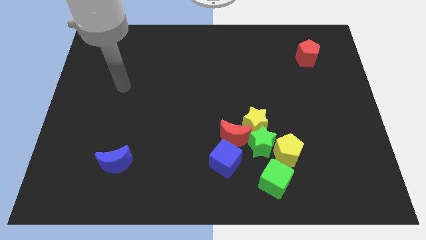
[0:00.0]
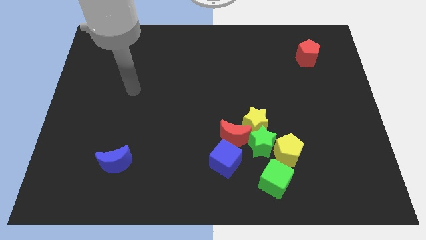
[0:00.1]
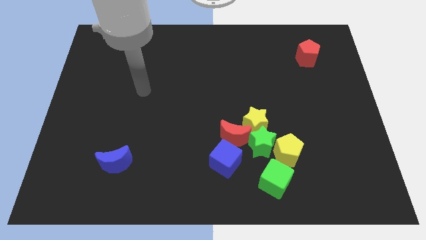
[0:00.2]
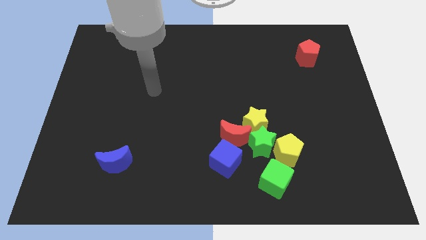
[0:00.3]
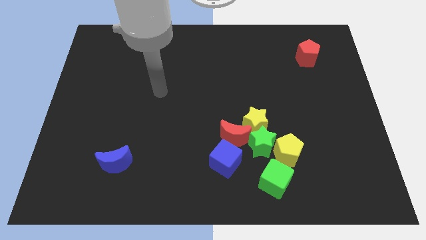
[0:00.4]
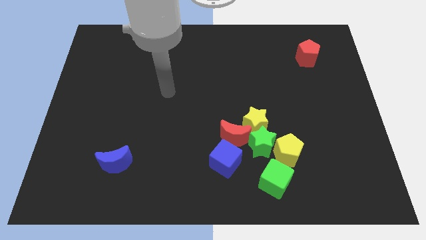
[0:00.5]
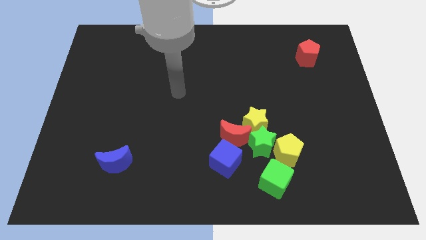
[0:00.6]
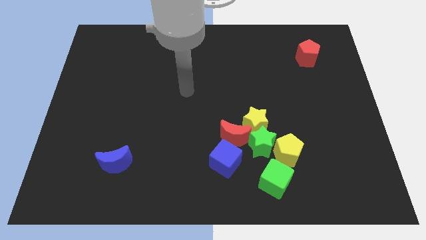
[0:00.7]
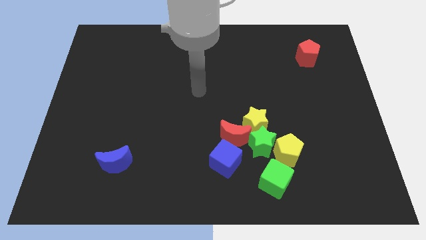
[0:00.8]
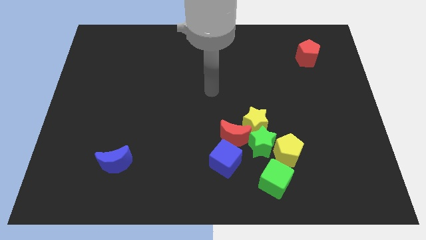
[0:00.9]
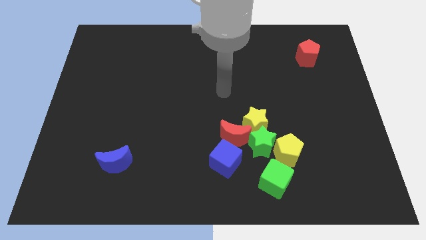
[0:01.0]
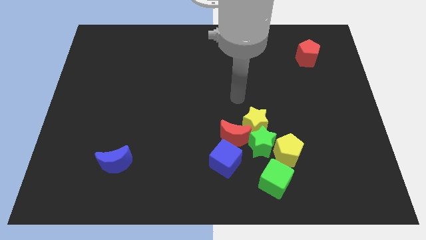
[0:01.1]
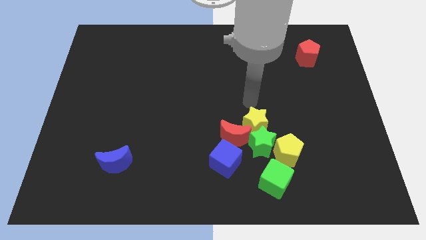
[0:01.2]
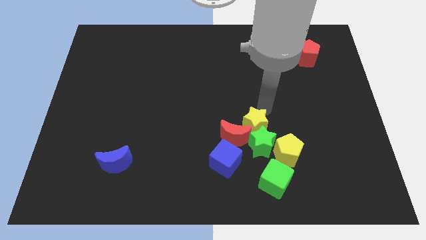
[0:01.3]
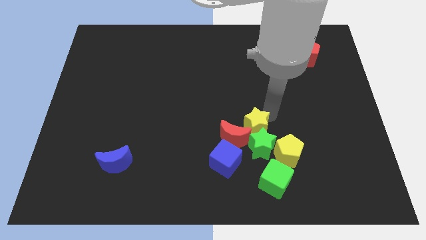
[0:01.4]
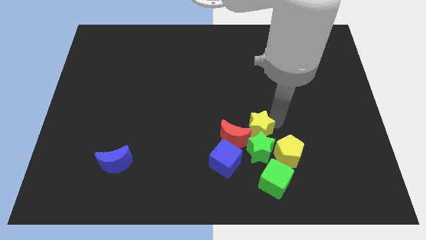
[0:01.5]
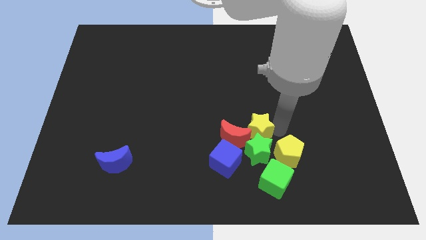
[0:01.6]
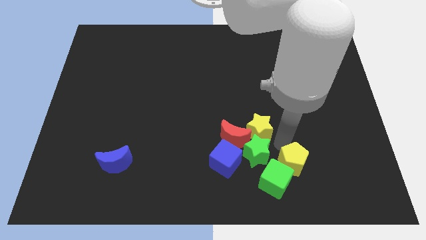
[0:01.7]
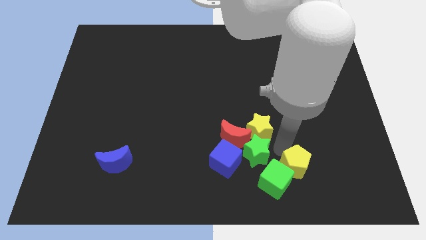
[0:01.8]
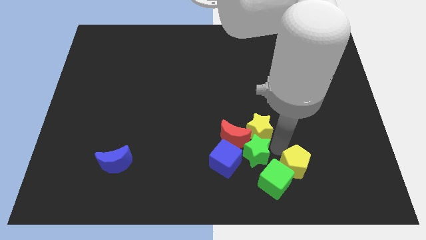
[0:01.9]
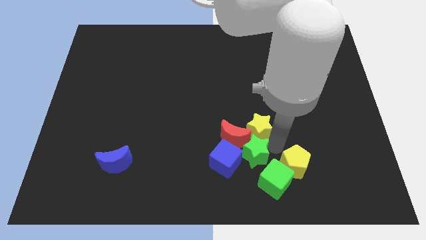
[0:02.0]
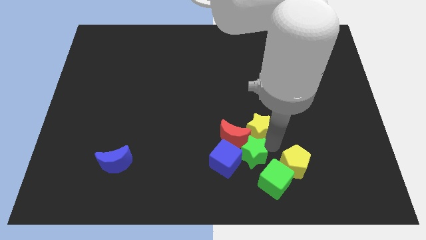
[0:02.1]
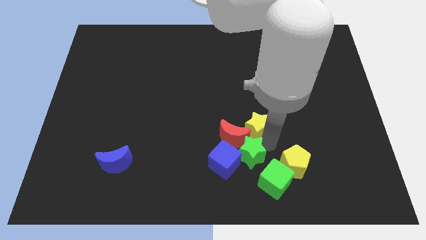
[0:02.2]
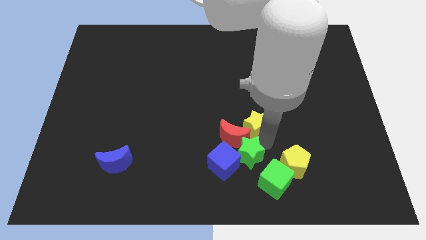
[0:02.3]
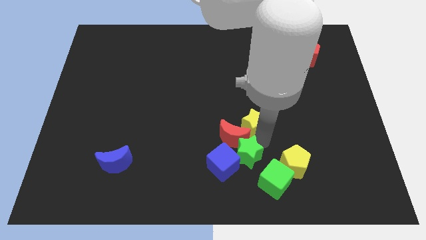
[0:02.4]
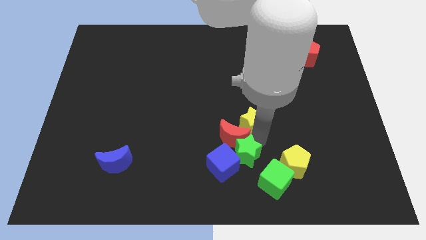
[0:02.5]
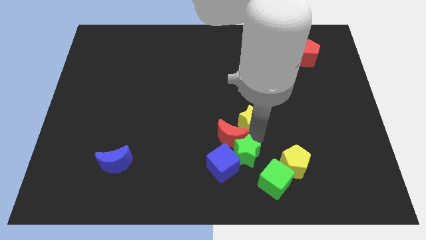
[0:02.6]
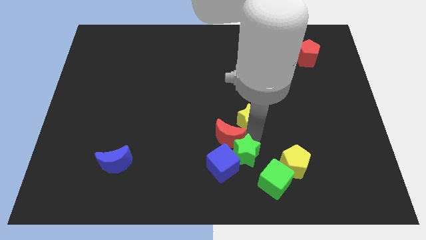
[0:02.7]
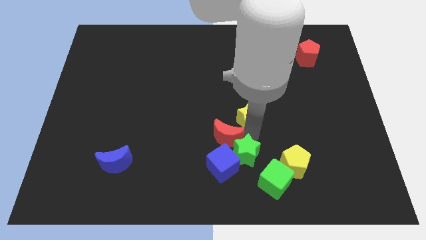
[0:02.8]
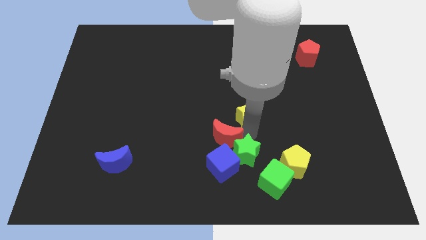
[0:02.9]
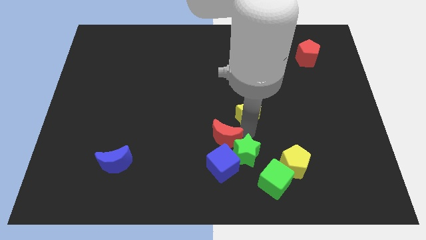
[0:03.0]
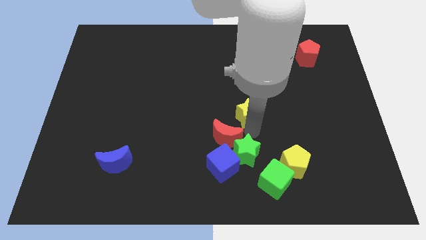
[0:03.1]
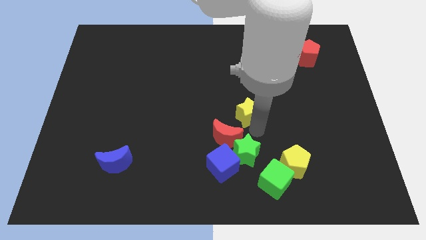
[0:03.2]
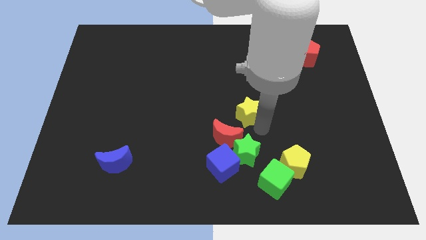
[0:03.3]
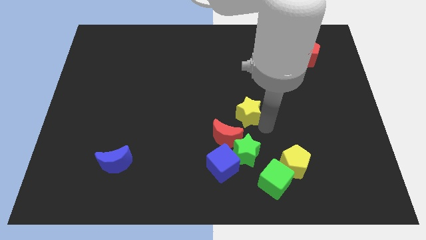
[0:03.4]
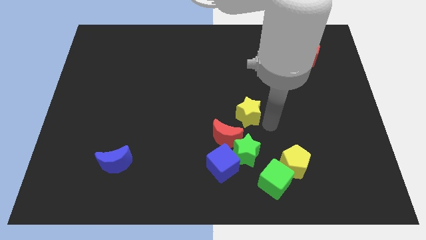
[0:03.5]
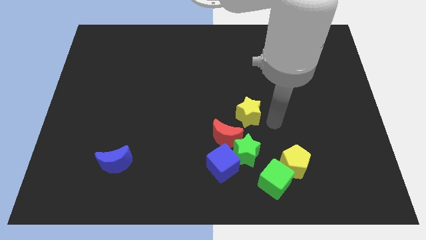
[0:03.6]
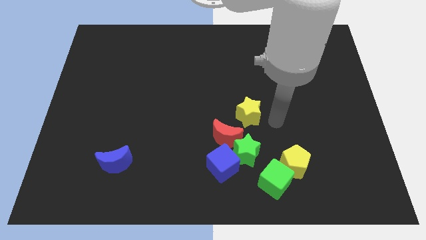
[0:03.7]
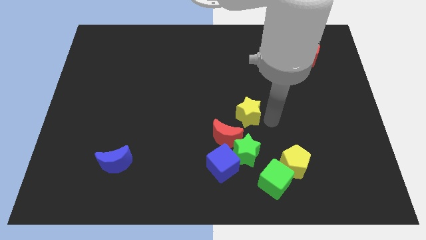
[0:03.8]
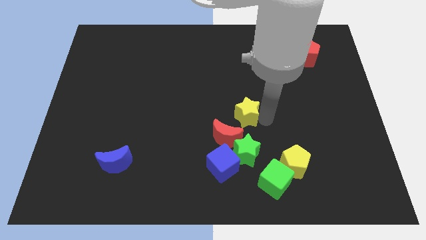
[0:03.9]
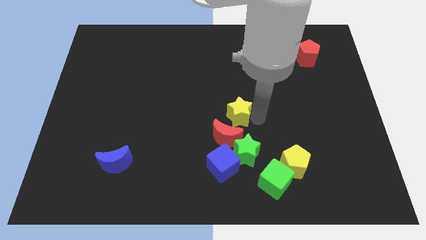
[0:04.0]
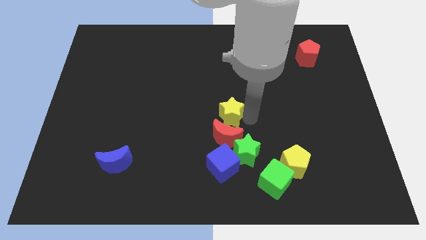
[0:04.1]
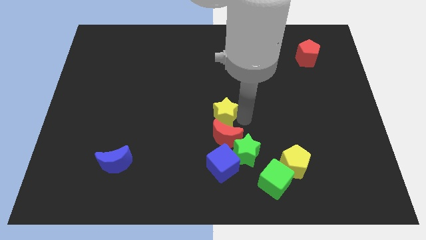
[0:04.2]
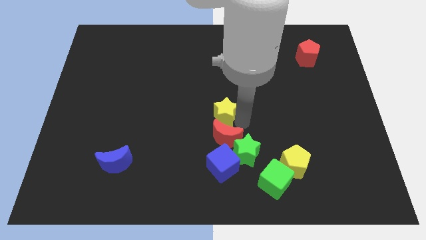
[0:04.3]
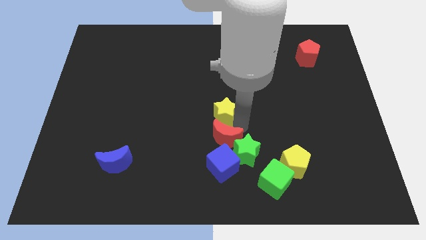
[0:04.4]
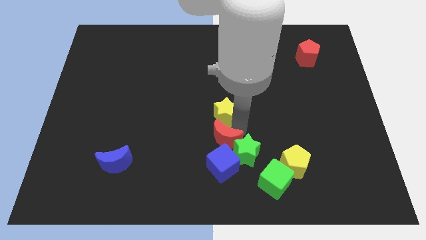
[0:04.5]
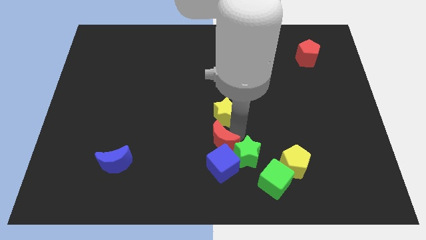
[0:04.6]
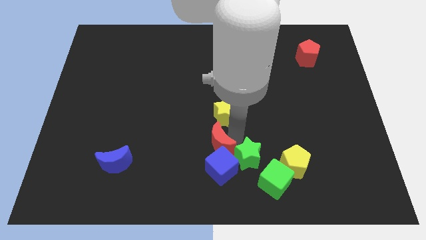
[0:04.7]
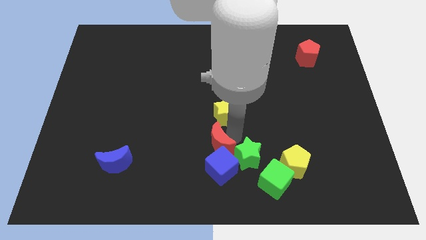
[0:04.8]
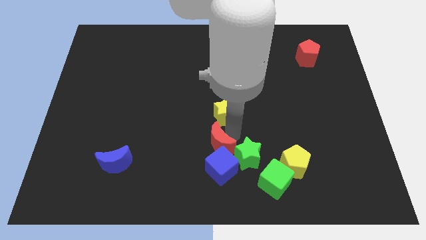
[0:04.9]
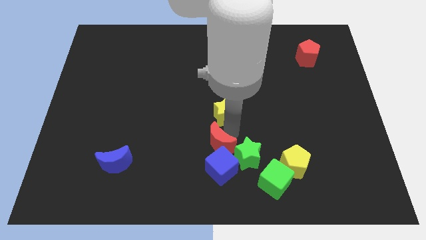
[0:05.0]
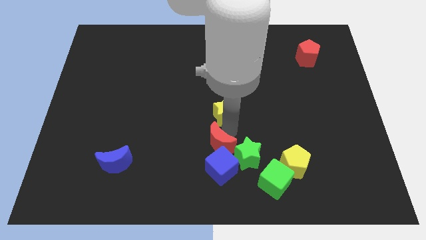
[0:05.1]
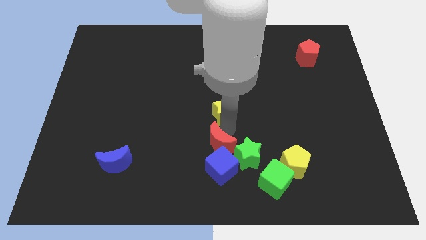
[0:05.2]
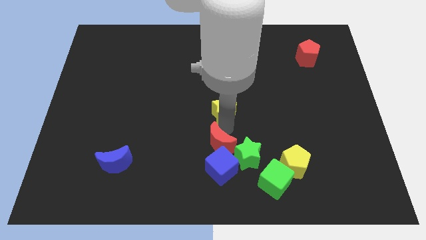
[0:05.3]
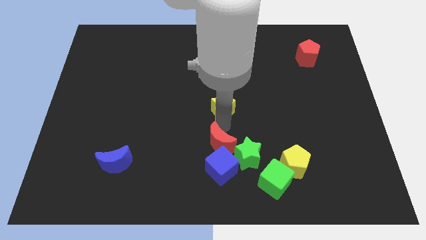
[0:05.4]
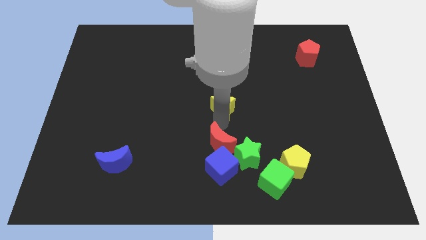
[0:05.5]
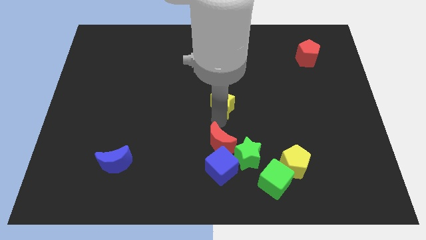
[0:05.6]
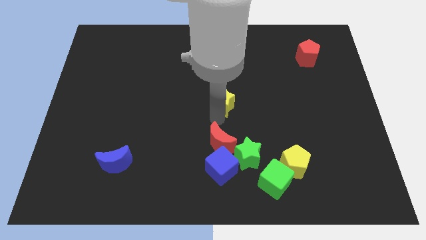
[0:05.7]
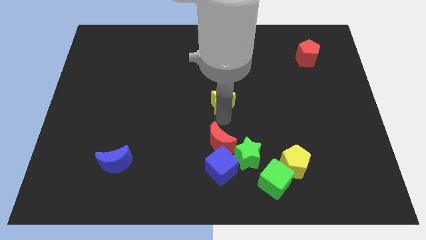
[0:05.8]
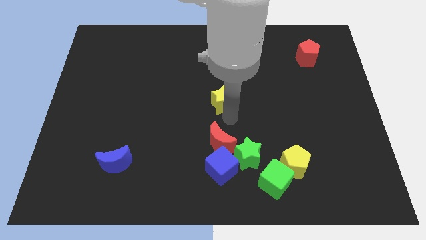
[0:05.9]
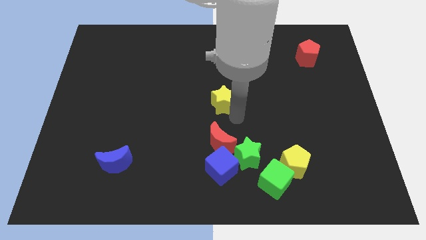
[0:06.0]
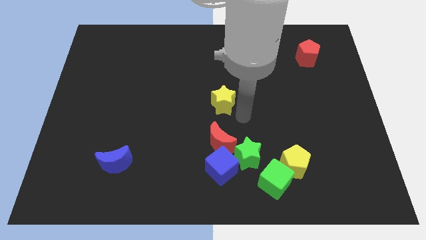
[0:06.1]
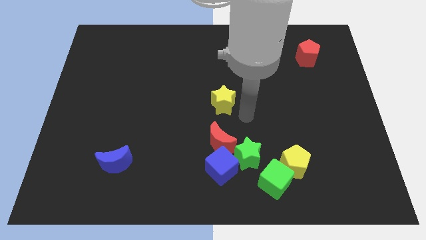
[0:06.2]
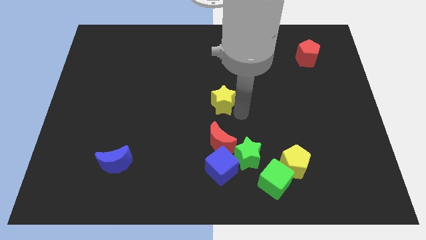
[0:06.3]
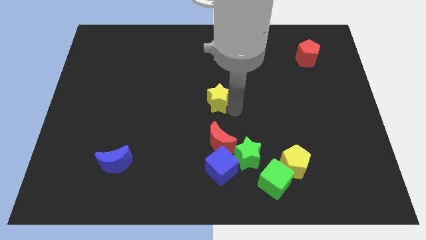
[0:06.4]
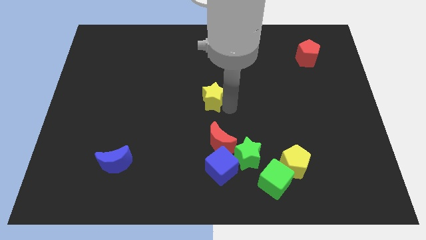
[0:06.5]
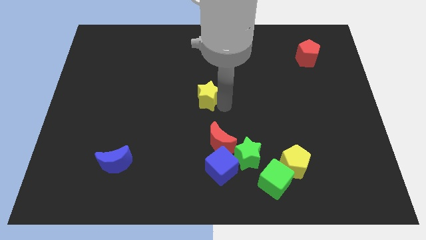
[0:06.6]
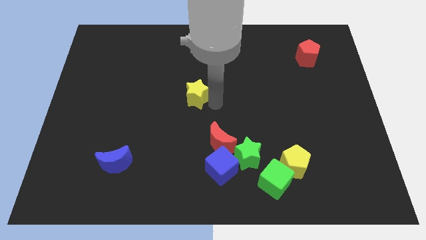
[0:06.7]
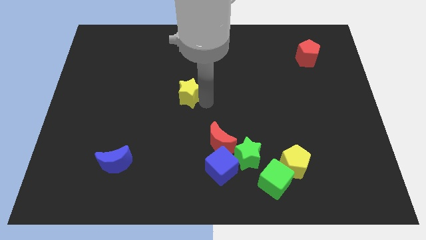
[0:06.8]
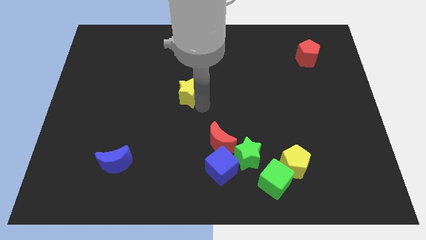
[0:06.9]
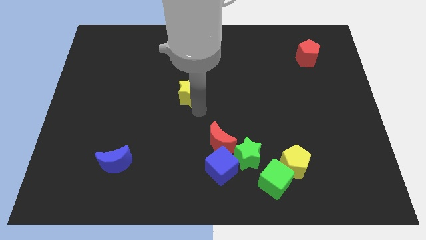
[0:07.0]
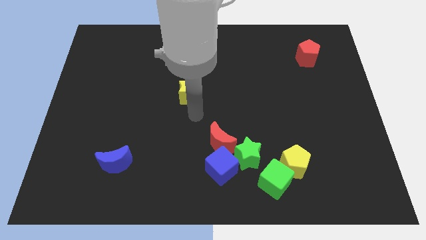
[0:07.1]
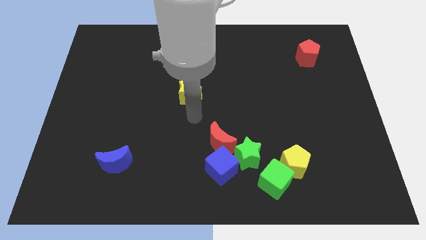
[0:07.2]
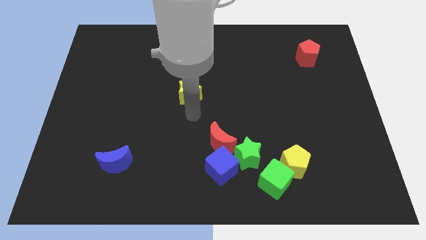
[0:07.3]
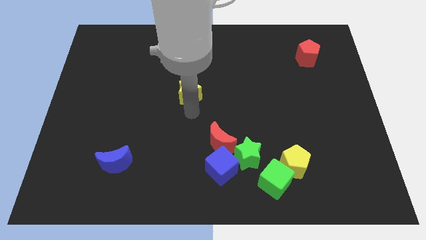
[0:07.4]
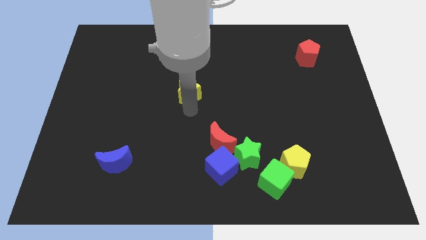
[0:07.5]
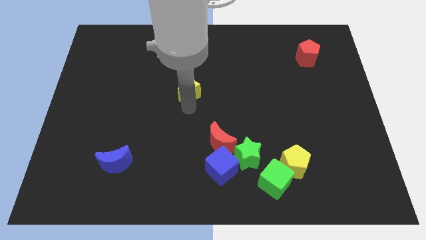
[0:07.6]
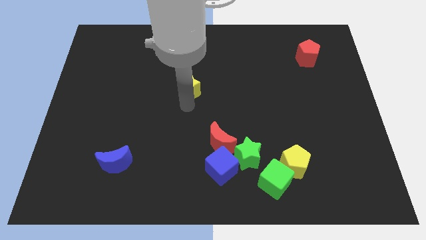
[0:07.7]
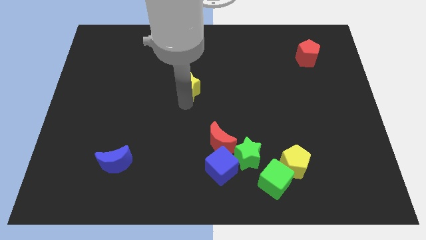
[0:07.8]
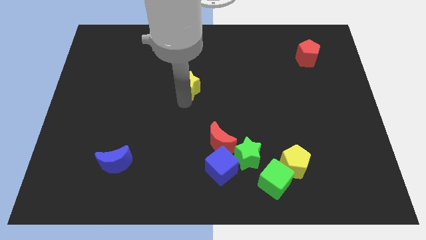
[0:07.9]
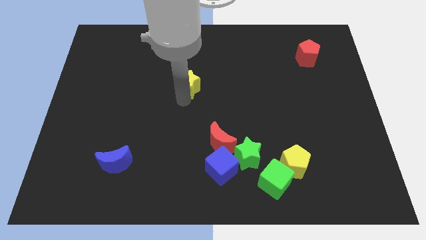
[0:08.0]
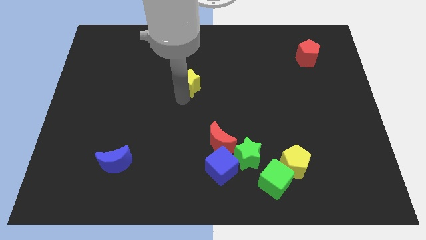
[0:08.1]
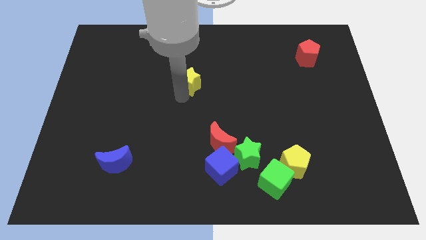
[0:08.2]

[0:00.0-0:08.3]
move the yellow star up and then left
